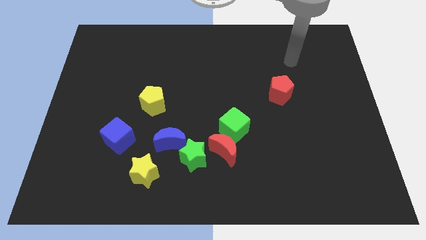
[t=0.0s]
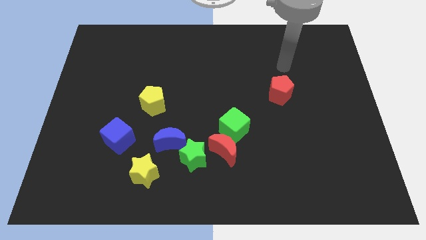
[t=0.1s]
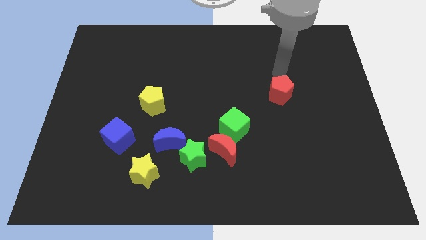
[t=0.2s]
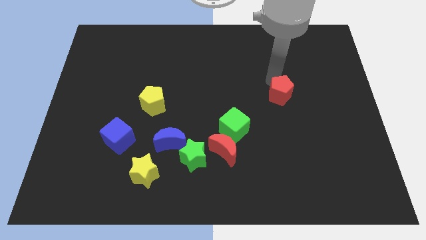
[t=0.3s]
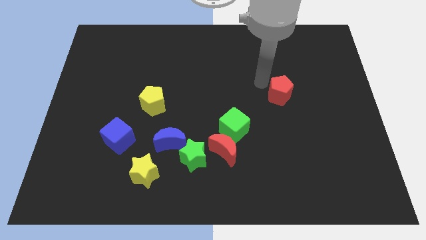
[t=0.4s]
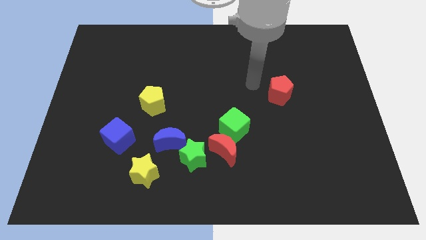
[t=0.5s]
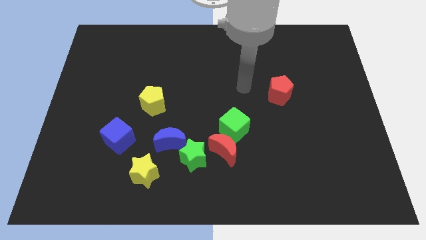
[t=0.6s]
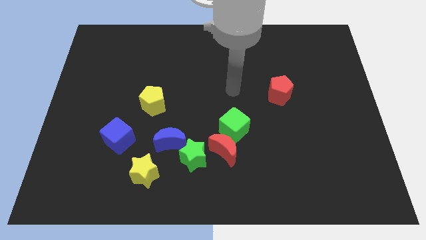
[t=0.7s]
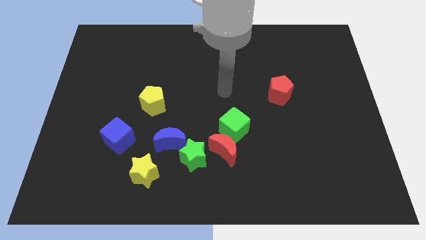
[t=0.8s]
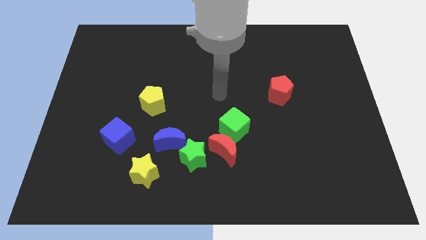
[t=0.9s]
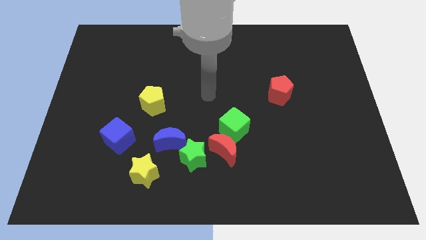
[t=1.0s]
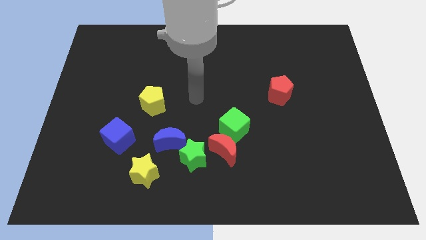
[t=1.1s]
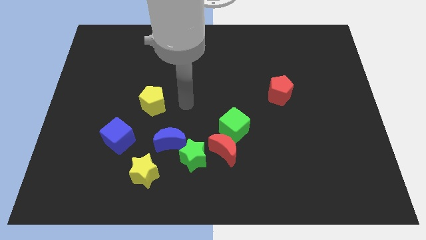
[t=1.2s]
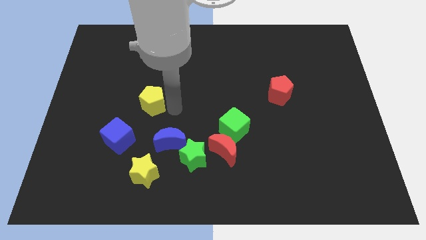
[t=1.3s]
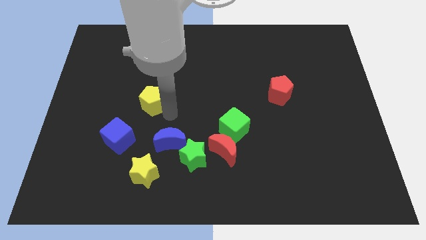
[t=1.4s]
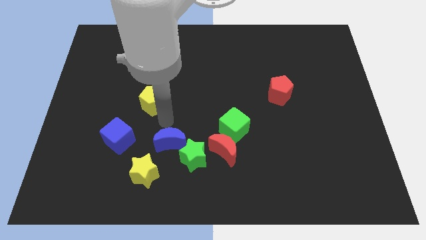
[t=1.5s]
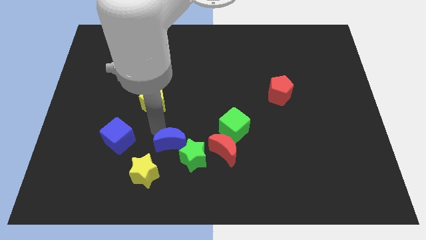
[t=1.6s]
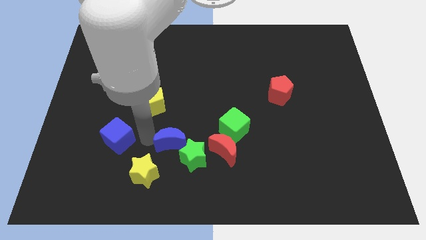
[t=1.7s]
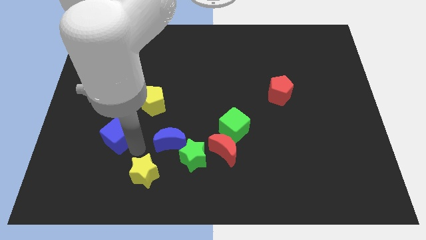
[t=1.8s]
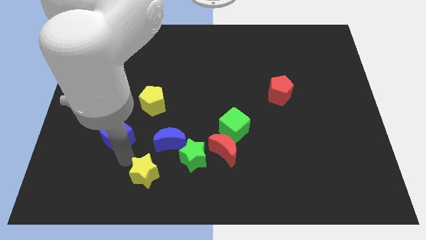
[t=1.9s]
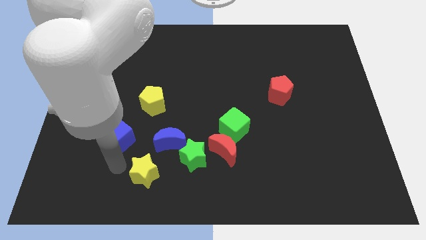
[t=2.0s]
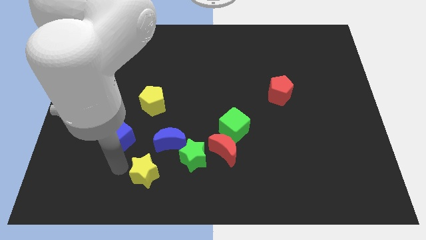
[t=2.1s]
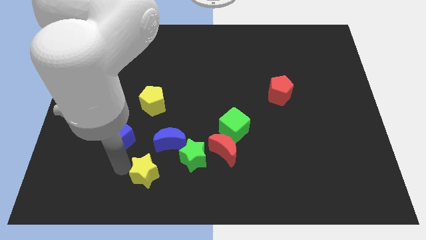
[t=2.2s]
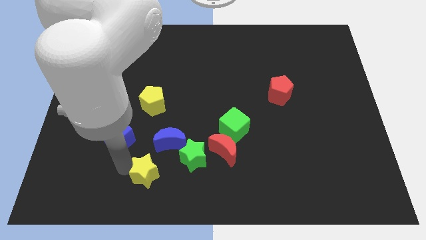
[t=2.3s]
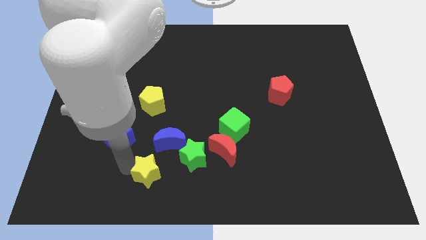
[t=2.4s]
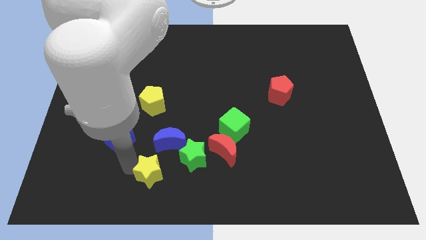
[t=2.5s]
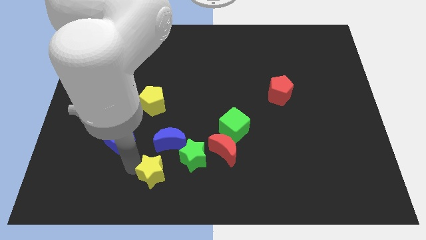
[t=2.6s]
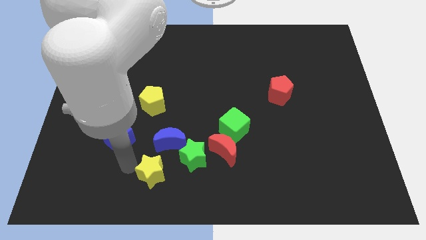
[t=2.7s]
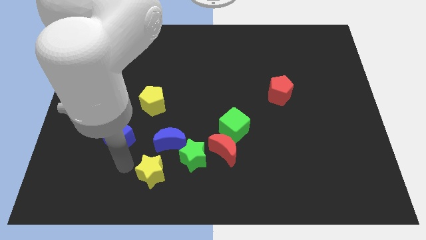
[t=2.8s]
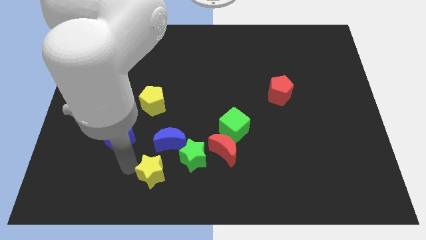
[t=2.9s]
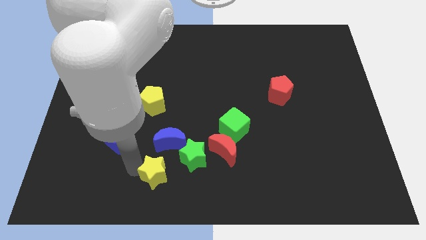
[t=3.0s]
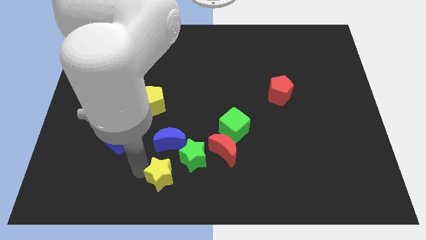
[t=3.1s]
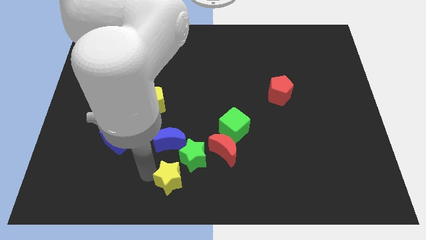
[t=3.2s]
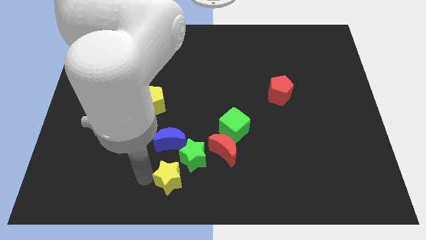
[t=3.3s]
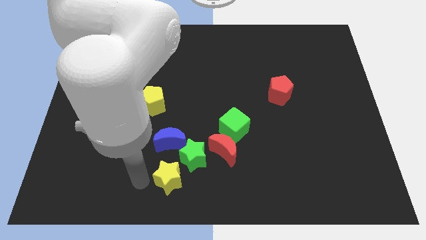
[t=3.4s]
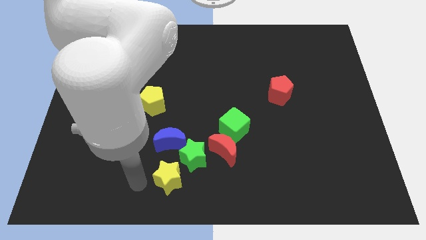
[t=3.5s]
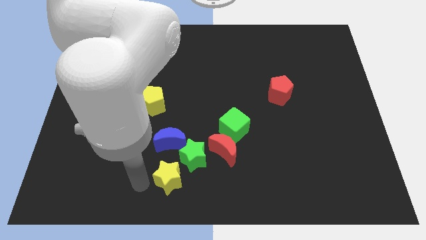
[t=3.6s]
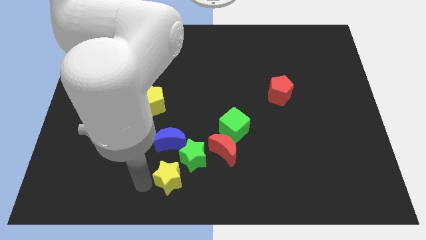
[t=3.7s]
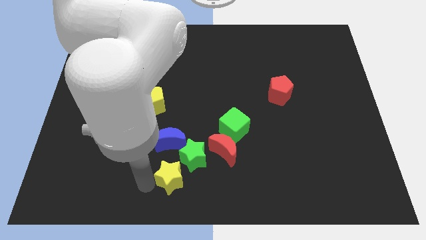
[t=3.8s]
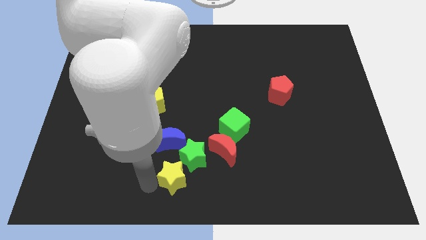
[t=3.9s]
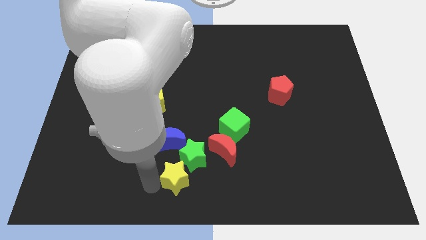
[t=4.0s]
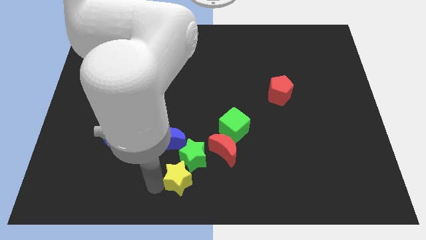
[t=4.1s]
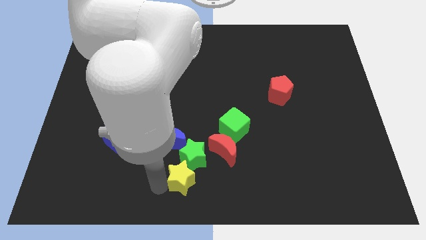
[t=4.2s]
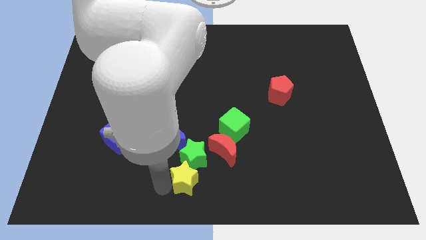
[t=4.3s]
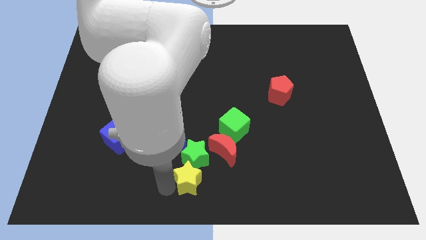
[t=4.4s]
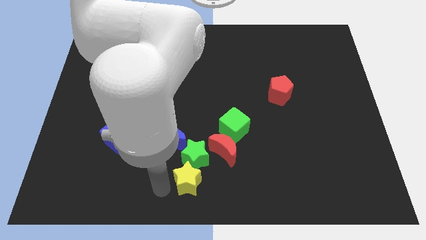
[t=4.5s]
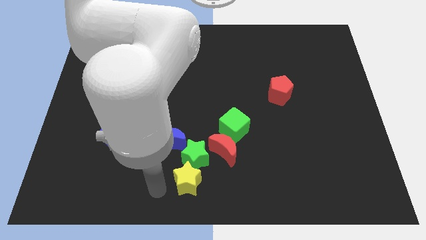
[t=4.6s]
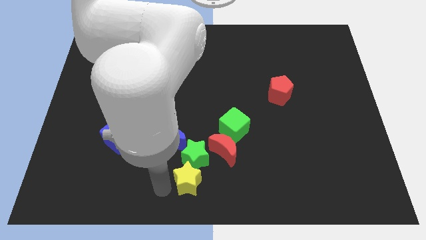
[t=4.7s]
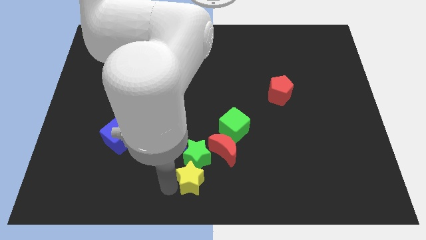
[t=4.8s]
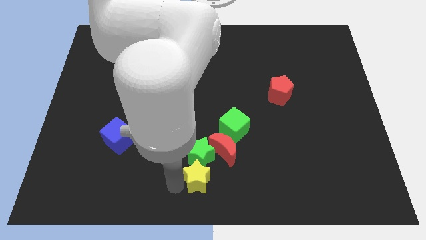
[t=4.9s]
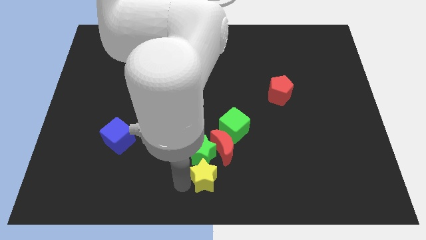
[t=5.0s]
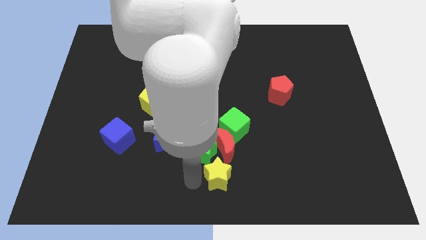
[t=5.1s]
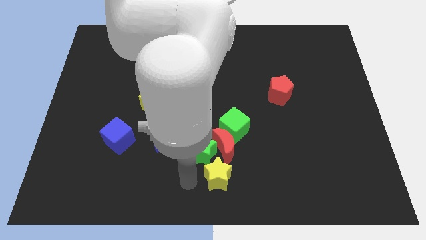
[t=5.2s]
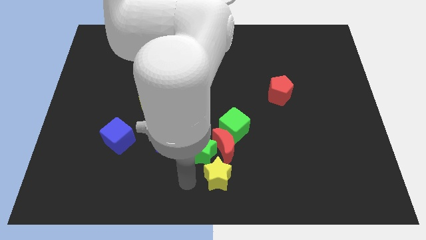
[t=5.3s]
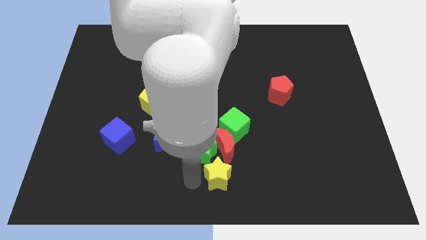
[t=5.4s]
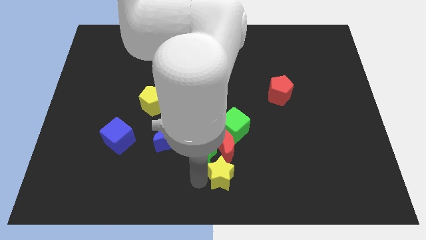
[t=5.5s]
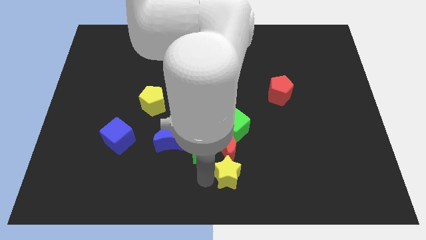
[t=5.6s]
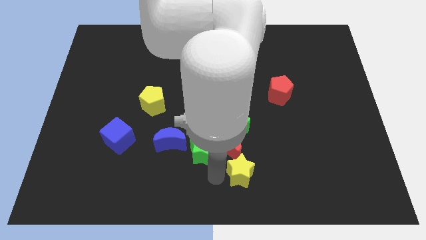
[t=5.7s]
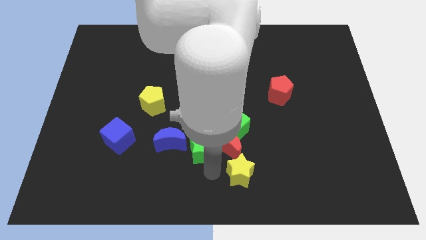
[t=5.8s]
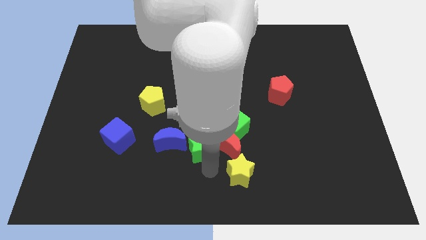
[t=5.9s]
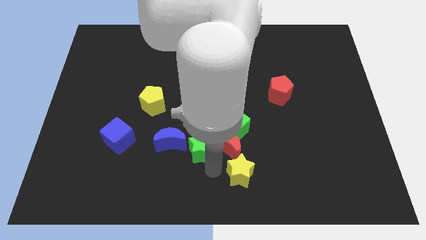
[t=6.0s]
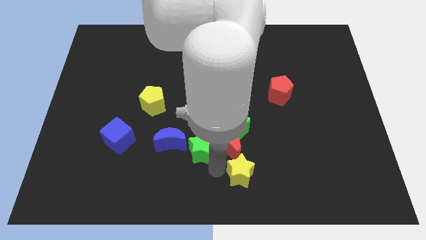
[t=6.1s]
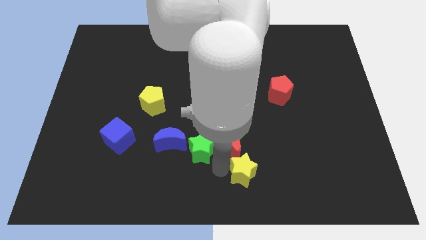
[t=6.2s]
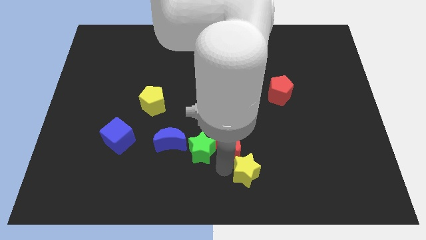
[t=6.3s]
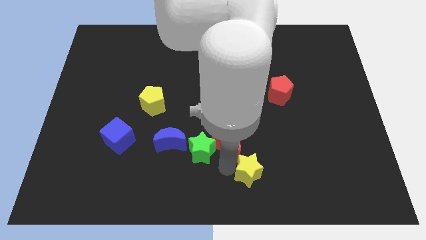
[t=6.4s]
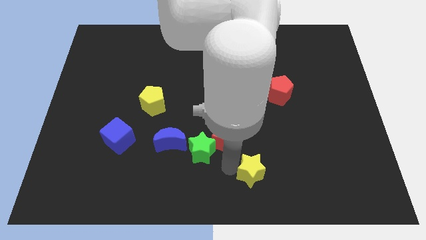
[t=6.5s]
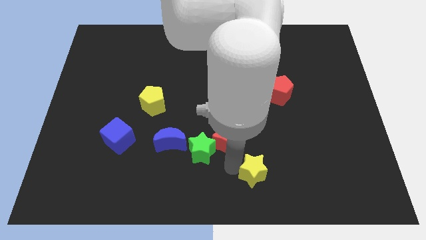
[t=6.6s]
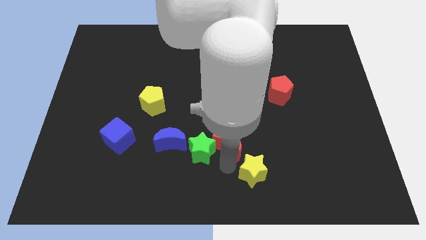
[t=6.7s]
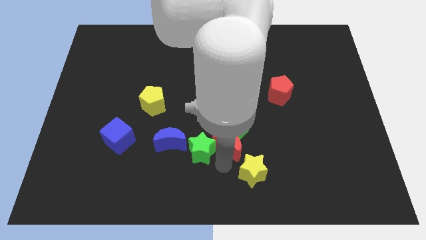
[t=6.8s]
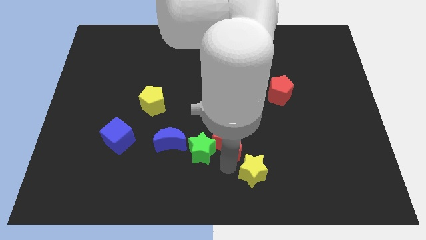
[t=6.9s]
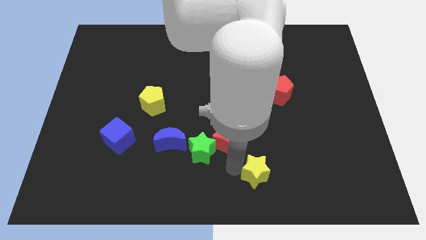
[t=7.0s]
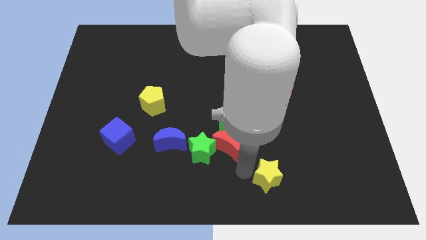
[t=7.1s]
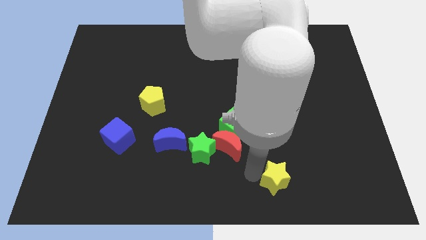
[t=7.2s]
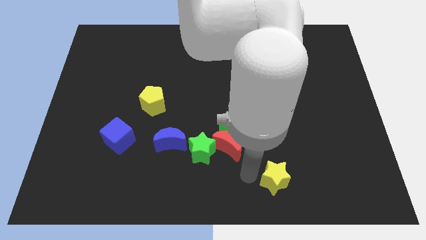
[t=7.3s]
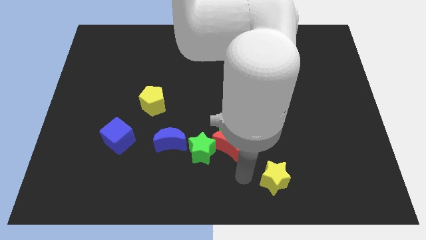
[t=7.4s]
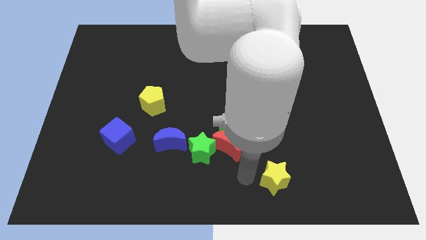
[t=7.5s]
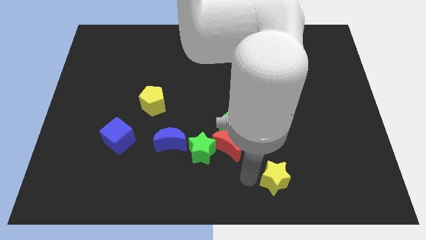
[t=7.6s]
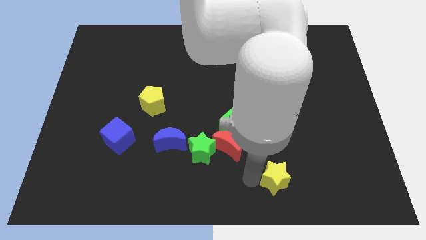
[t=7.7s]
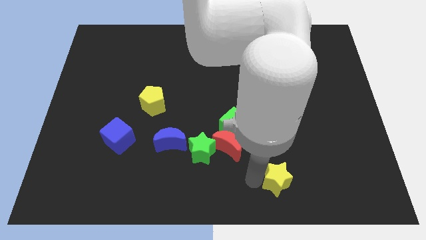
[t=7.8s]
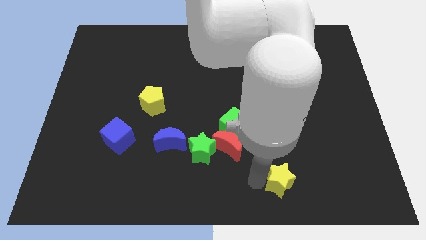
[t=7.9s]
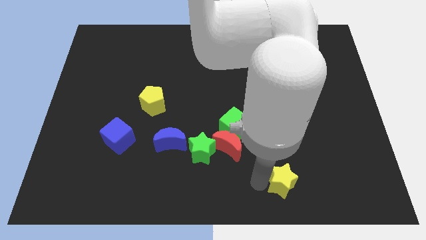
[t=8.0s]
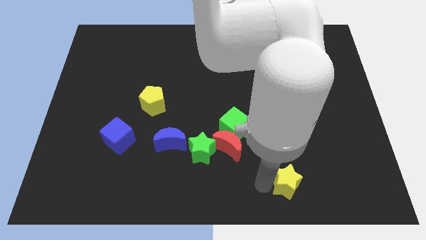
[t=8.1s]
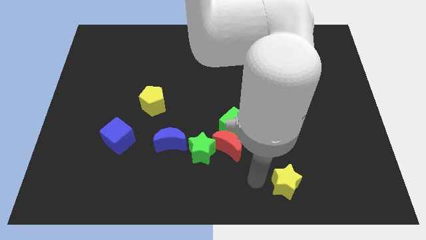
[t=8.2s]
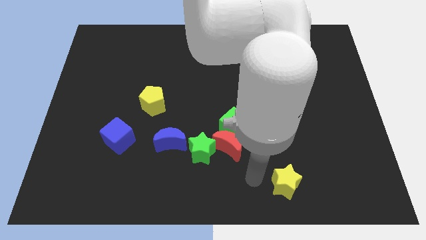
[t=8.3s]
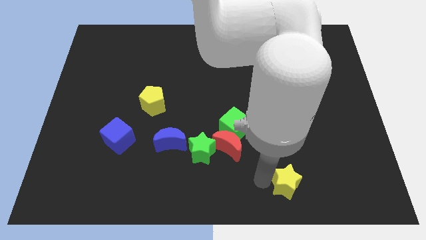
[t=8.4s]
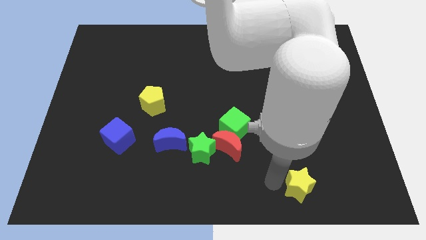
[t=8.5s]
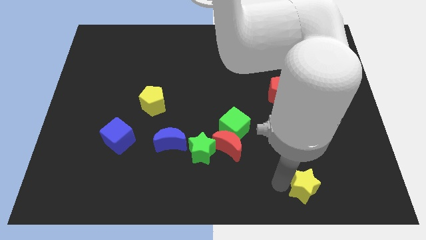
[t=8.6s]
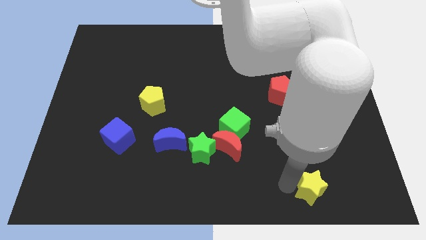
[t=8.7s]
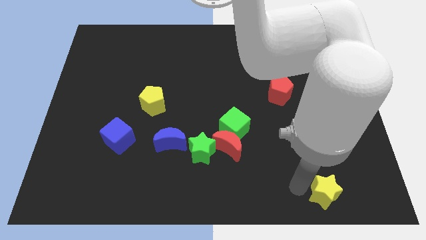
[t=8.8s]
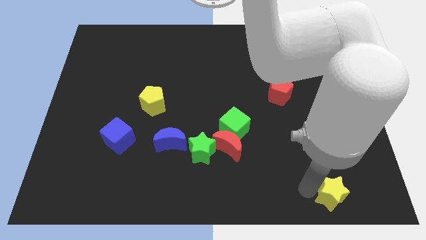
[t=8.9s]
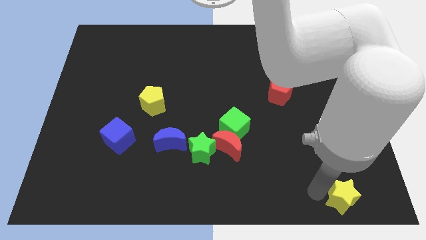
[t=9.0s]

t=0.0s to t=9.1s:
push the yellow star to the bottom right of the board
